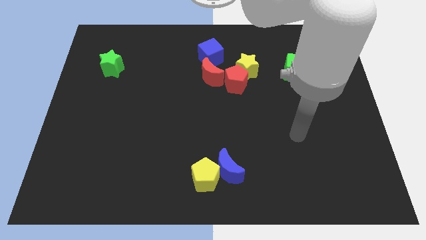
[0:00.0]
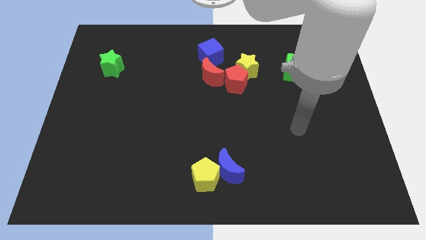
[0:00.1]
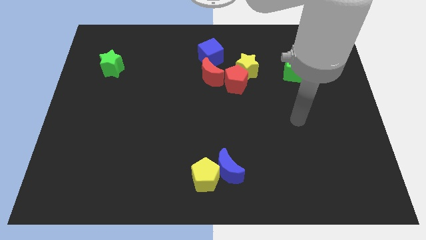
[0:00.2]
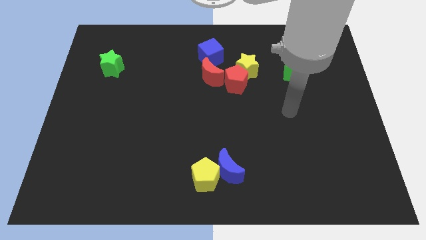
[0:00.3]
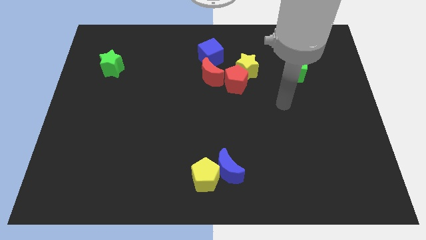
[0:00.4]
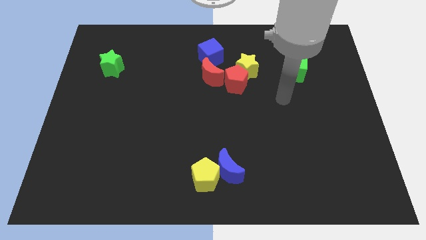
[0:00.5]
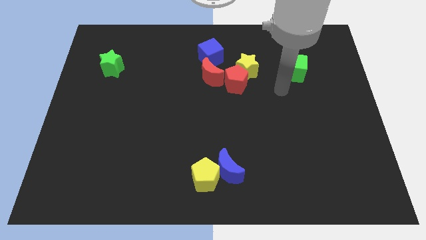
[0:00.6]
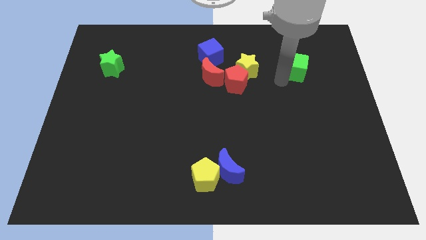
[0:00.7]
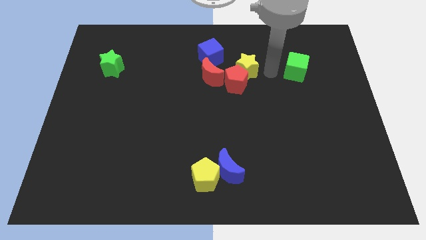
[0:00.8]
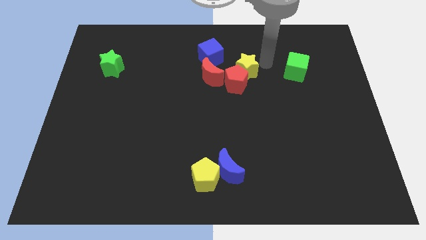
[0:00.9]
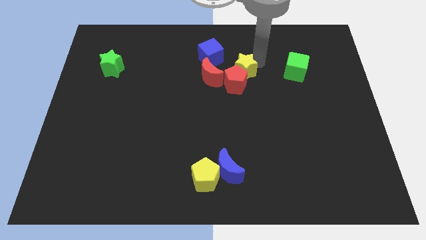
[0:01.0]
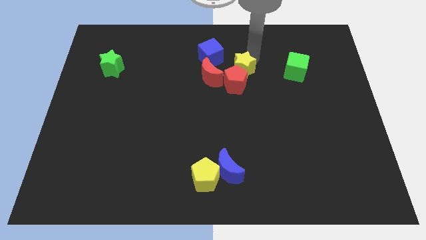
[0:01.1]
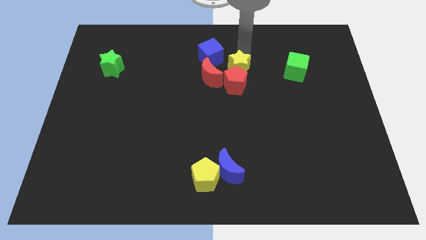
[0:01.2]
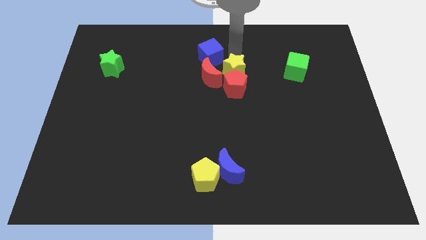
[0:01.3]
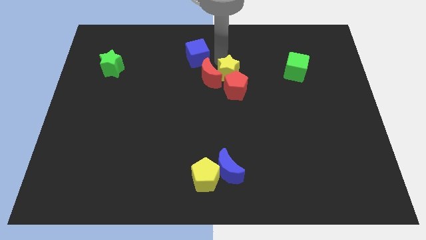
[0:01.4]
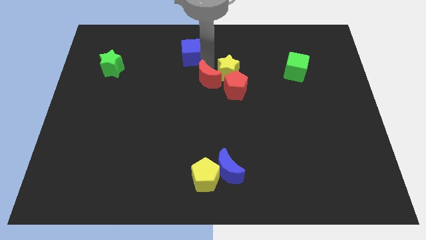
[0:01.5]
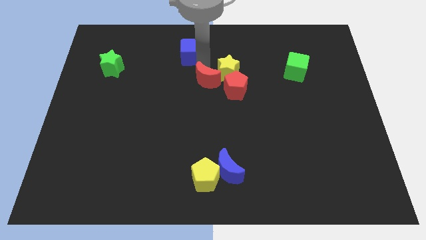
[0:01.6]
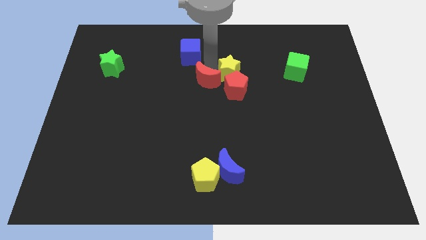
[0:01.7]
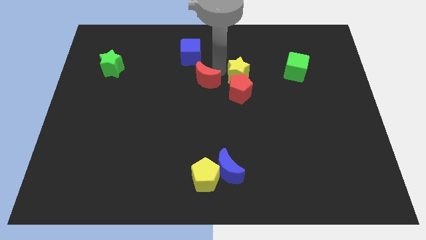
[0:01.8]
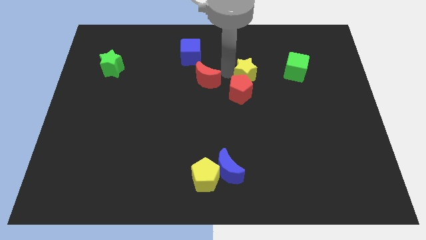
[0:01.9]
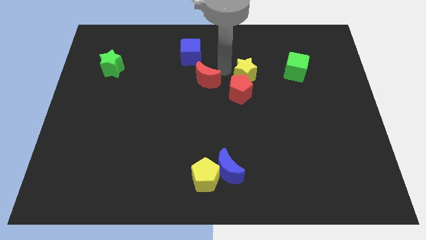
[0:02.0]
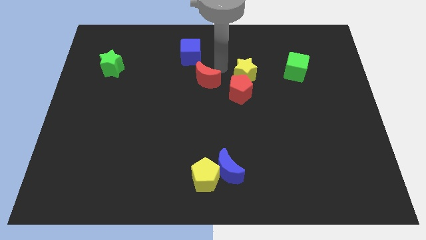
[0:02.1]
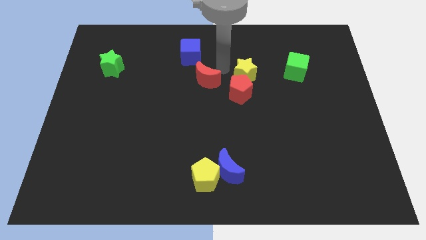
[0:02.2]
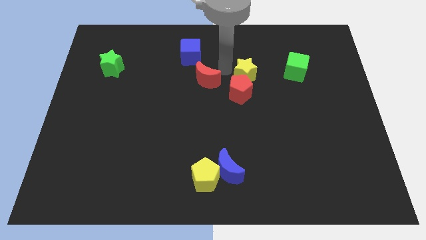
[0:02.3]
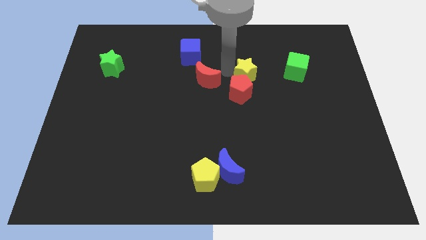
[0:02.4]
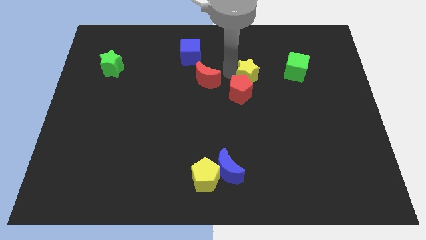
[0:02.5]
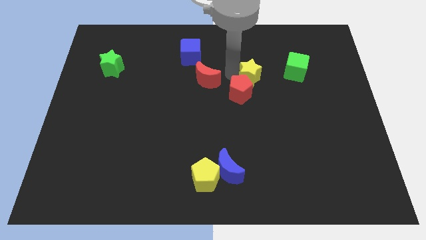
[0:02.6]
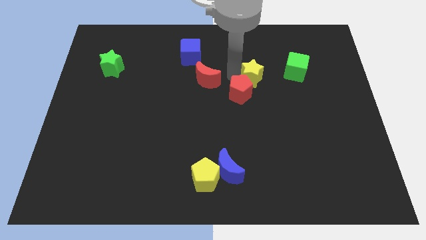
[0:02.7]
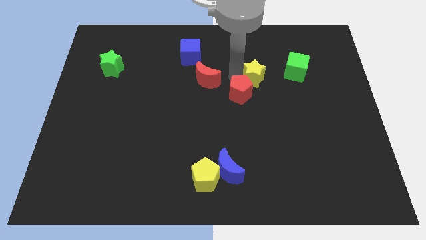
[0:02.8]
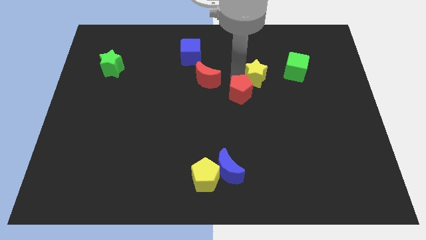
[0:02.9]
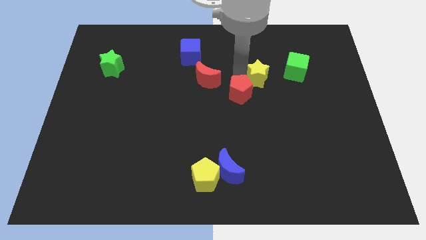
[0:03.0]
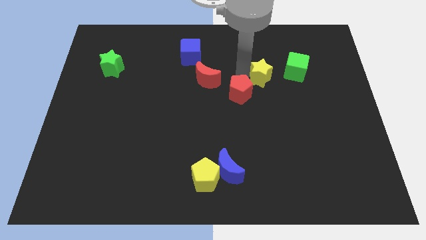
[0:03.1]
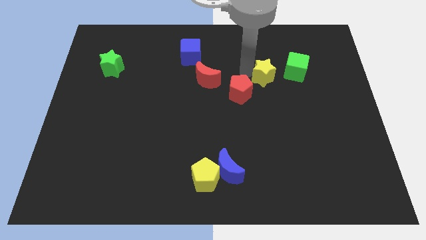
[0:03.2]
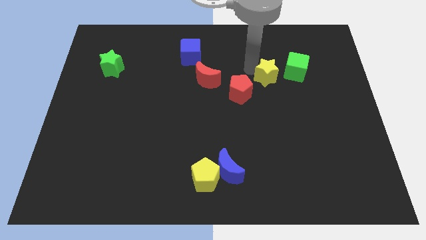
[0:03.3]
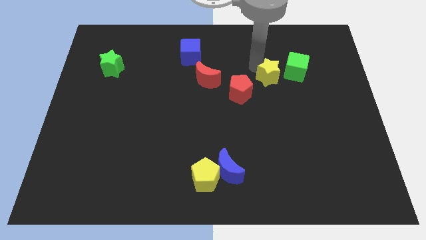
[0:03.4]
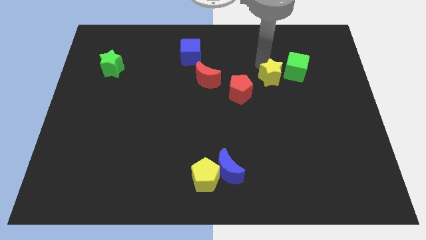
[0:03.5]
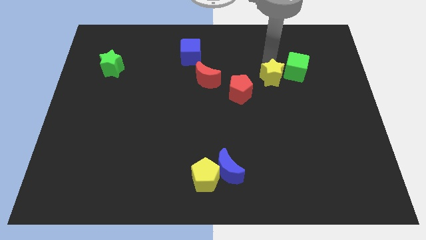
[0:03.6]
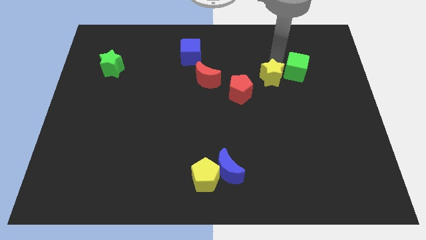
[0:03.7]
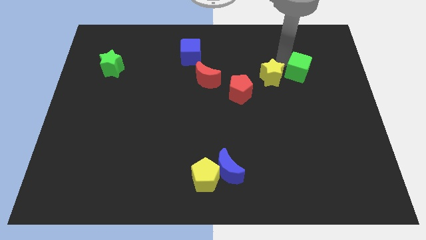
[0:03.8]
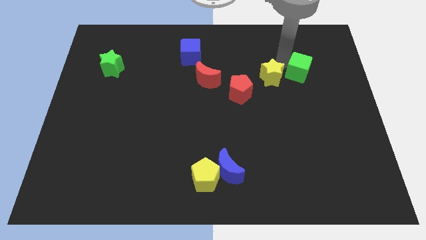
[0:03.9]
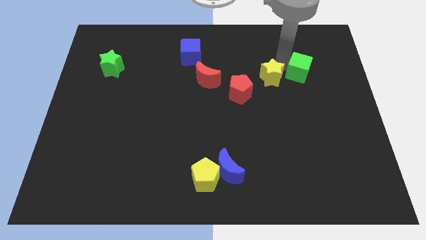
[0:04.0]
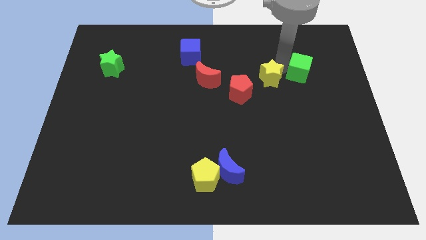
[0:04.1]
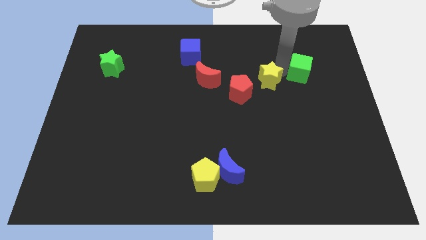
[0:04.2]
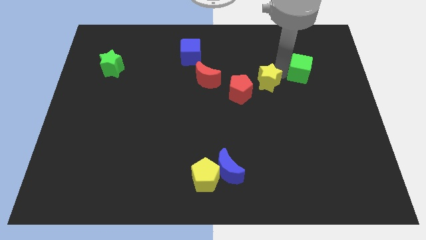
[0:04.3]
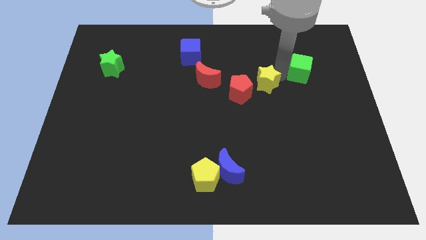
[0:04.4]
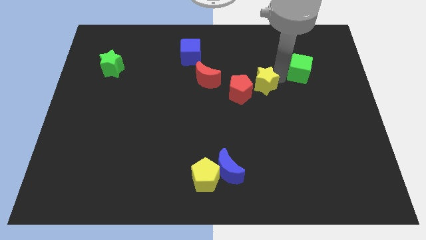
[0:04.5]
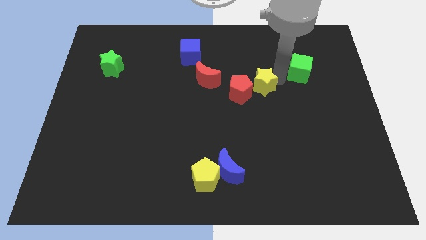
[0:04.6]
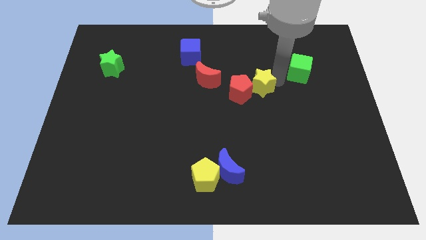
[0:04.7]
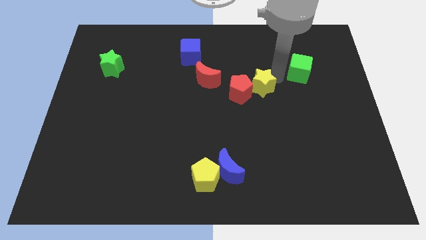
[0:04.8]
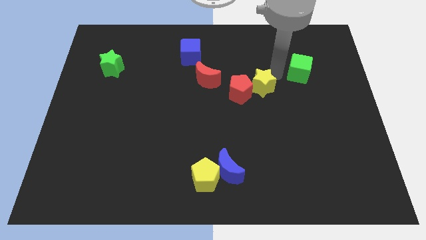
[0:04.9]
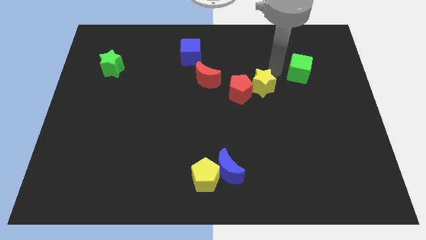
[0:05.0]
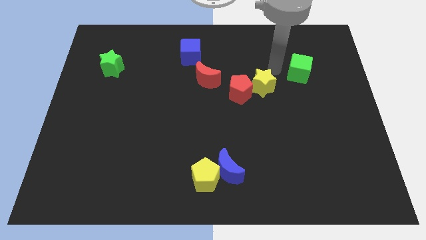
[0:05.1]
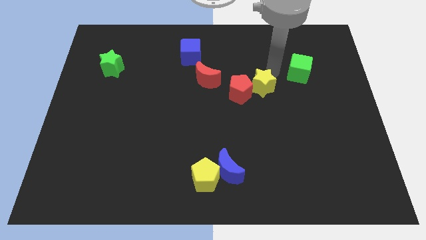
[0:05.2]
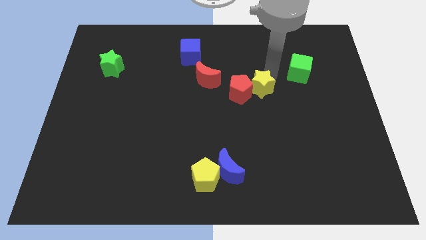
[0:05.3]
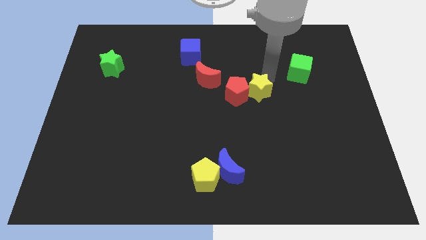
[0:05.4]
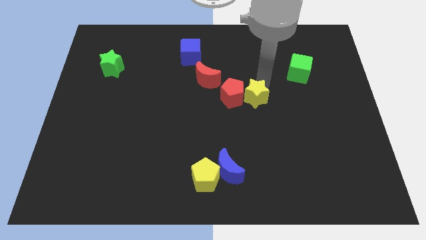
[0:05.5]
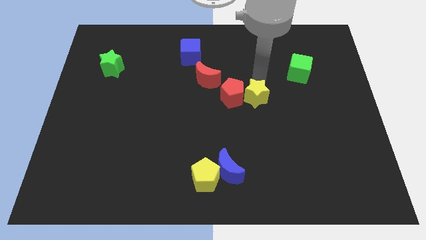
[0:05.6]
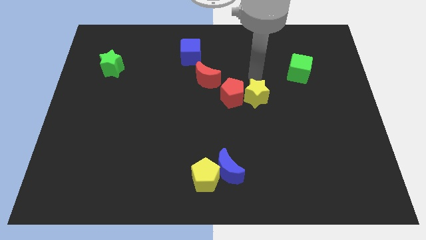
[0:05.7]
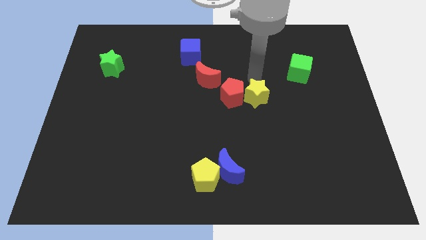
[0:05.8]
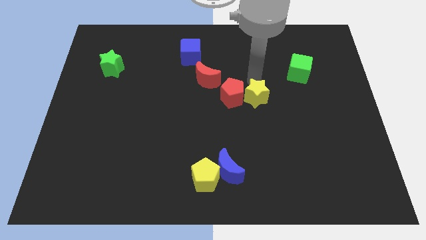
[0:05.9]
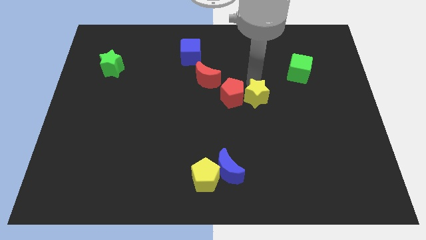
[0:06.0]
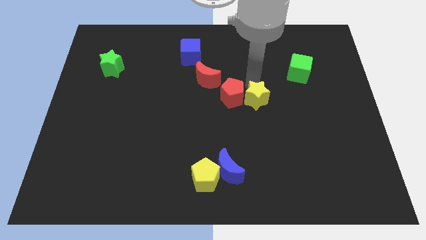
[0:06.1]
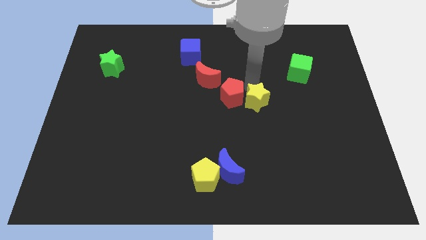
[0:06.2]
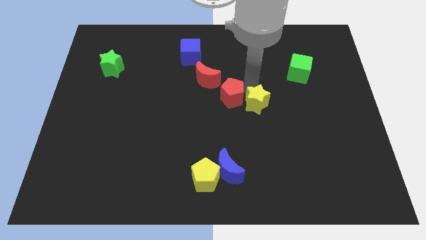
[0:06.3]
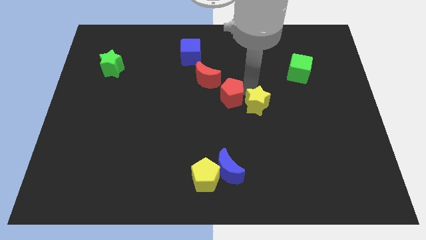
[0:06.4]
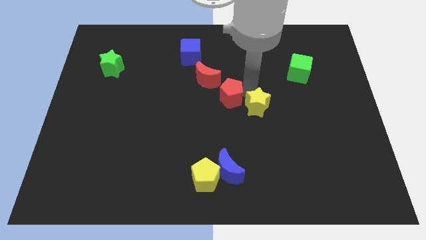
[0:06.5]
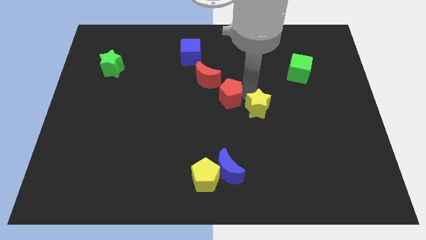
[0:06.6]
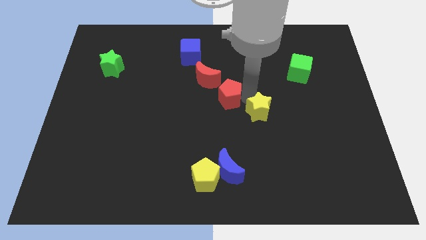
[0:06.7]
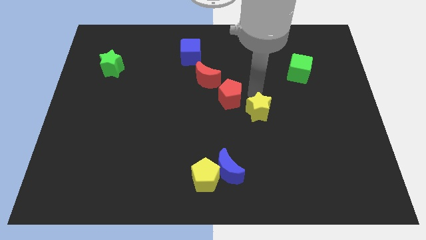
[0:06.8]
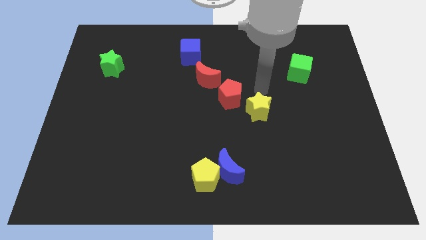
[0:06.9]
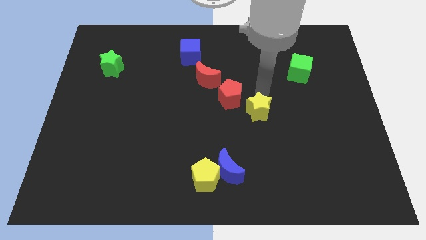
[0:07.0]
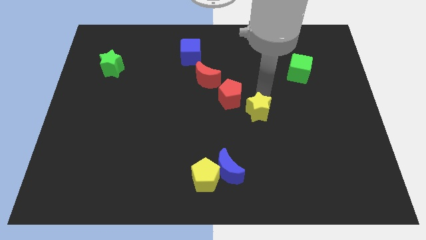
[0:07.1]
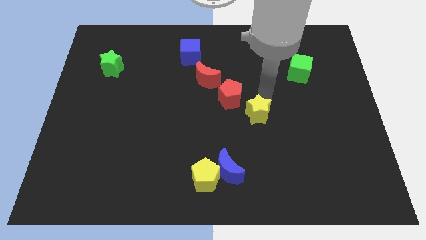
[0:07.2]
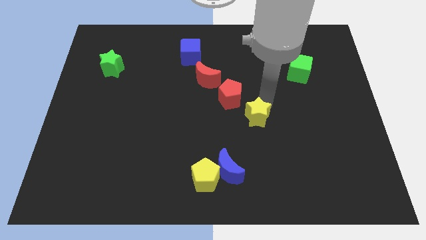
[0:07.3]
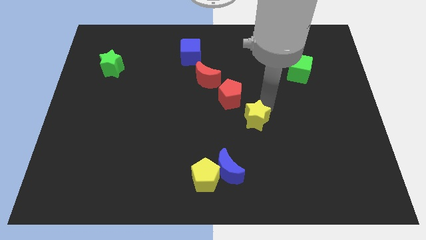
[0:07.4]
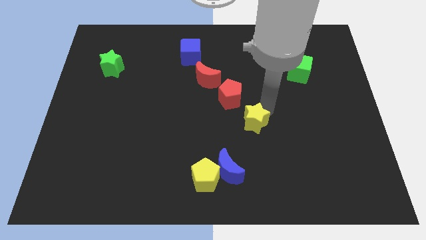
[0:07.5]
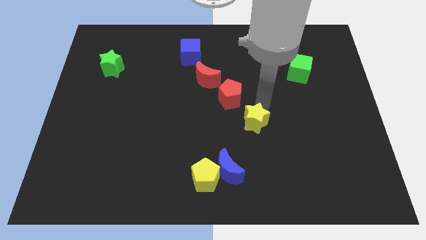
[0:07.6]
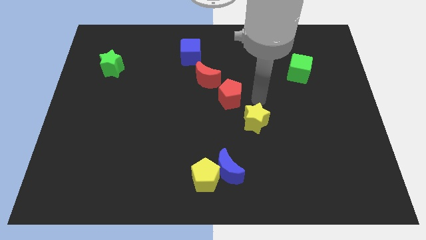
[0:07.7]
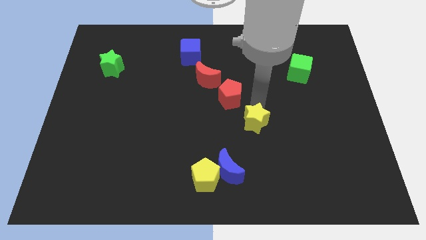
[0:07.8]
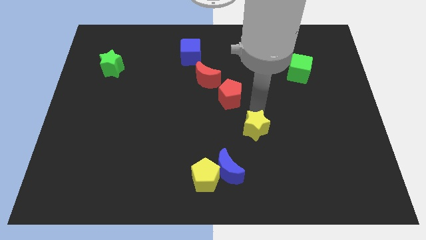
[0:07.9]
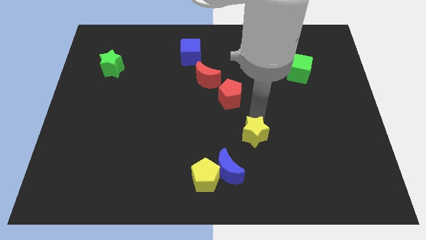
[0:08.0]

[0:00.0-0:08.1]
push the yellow star to the top right side of the blue moon
